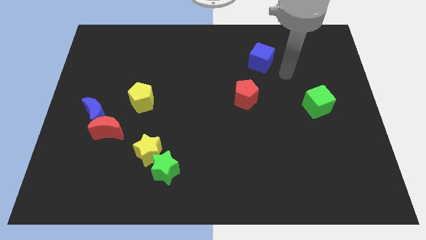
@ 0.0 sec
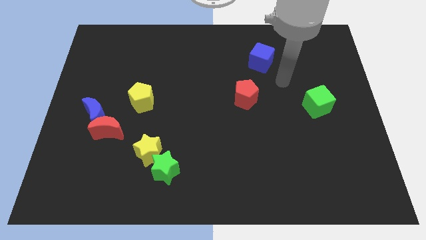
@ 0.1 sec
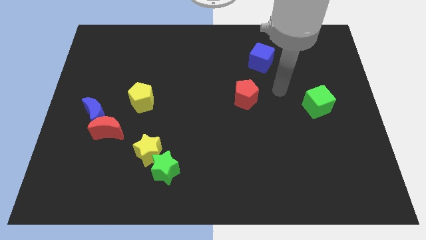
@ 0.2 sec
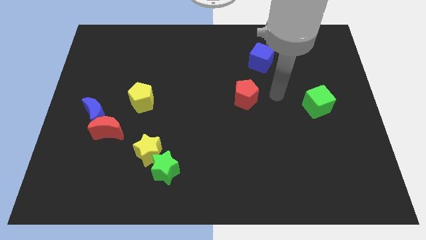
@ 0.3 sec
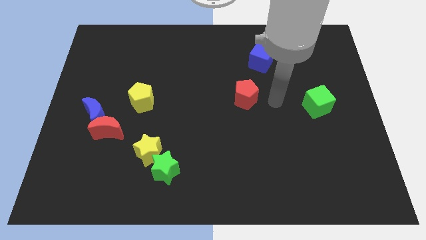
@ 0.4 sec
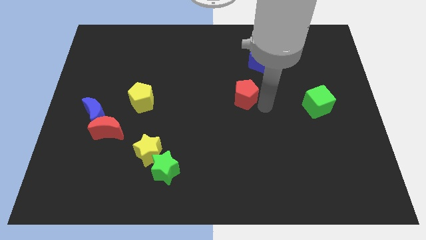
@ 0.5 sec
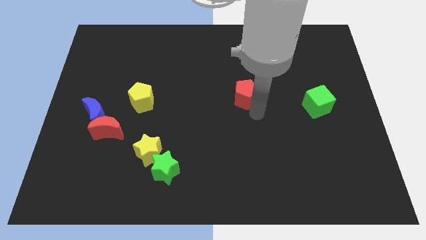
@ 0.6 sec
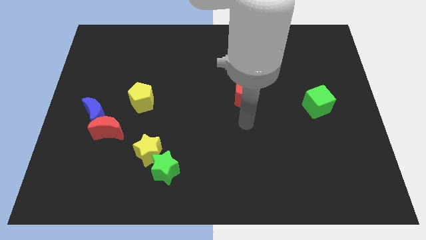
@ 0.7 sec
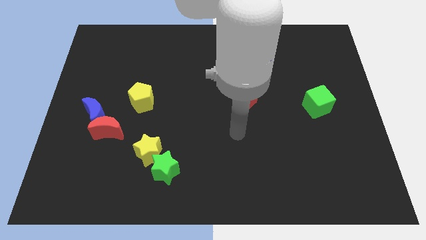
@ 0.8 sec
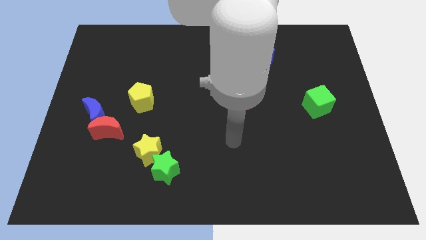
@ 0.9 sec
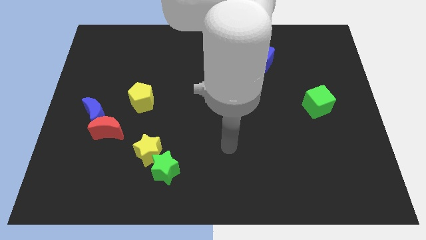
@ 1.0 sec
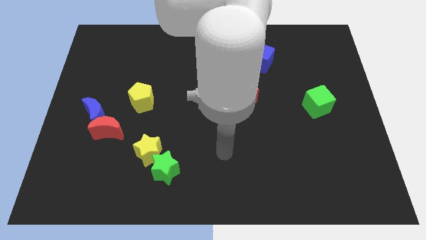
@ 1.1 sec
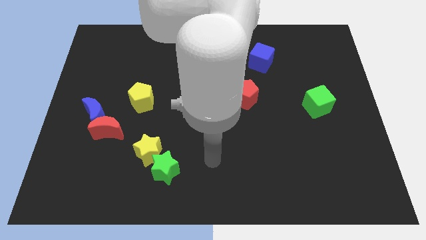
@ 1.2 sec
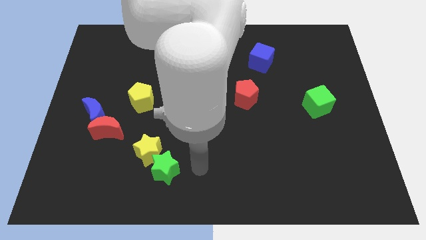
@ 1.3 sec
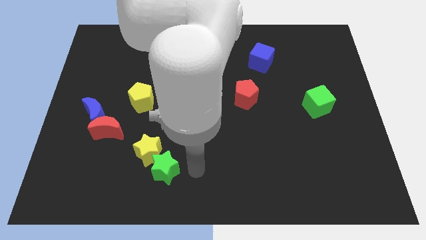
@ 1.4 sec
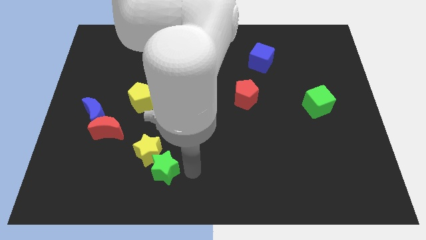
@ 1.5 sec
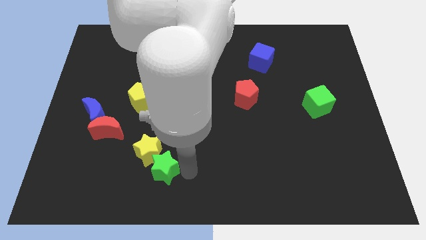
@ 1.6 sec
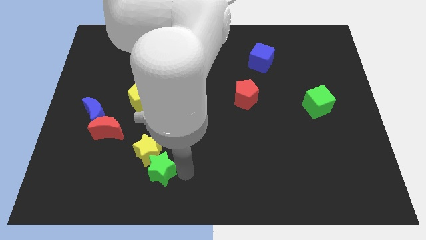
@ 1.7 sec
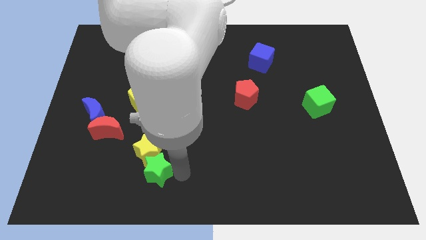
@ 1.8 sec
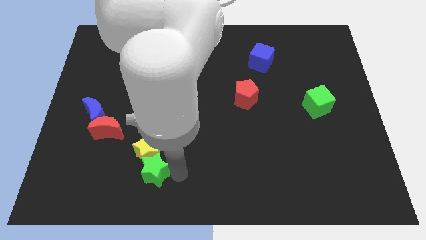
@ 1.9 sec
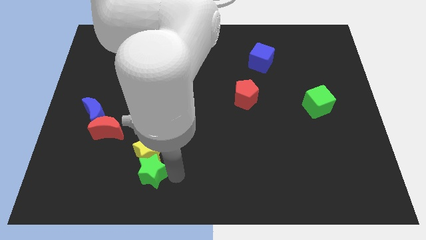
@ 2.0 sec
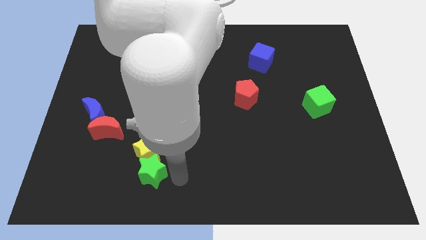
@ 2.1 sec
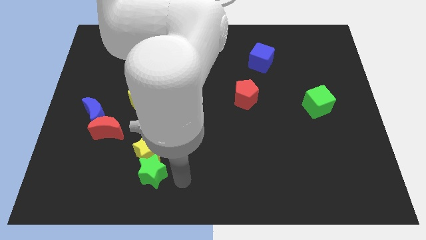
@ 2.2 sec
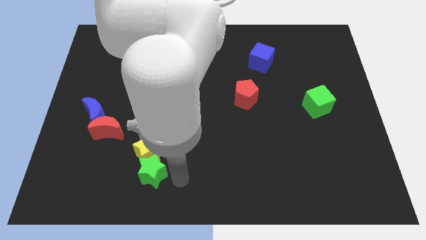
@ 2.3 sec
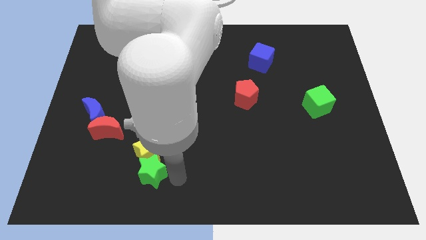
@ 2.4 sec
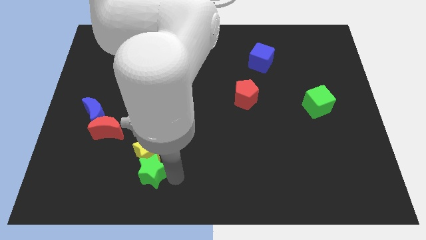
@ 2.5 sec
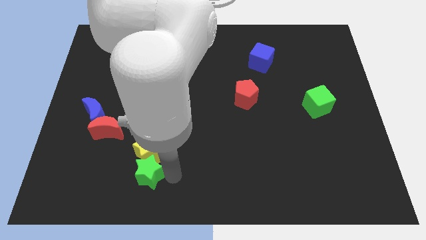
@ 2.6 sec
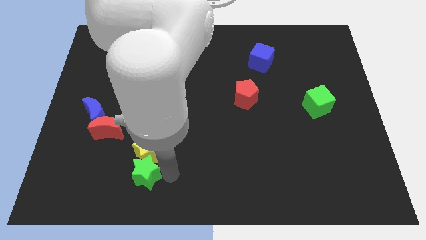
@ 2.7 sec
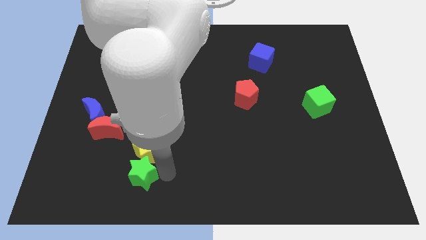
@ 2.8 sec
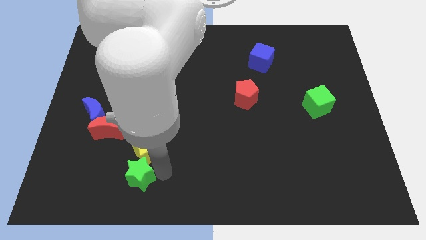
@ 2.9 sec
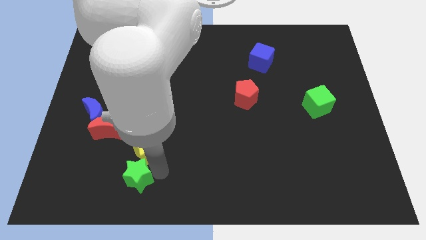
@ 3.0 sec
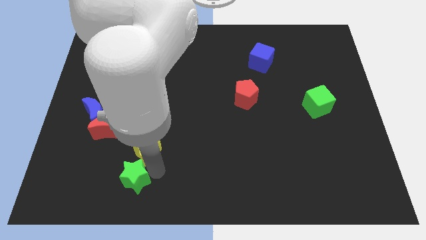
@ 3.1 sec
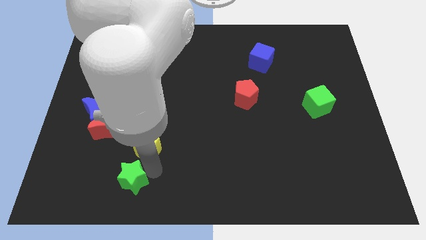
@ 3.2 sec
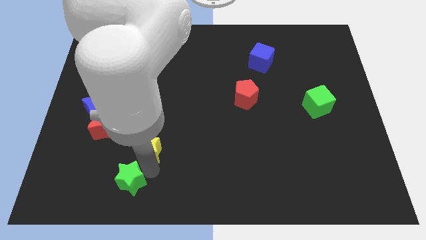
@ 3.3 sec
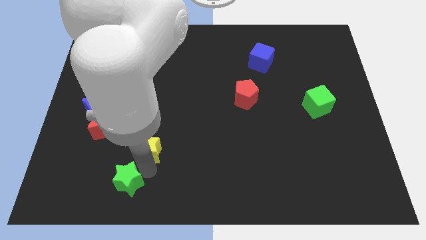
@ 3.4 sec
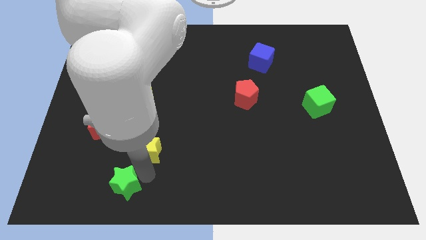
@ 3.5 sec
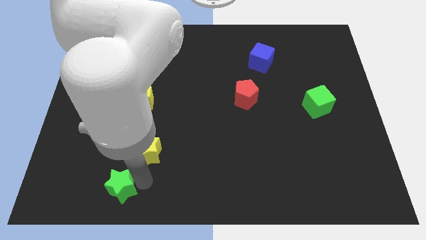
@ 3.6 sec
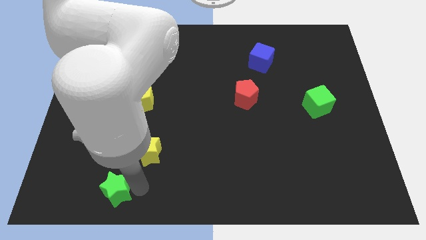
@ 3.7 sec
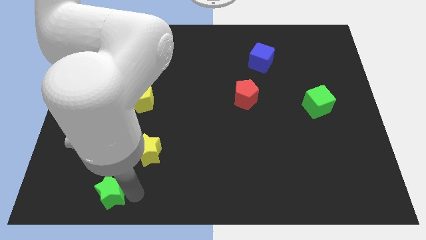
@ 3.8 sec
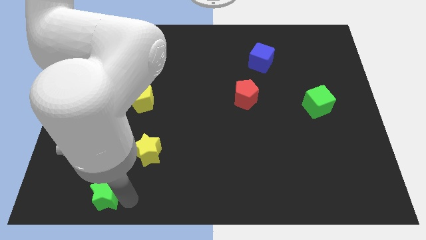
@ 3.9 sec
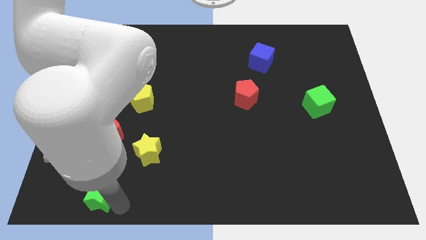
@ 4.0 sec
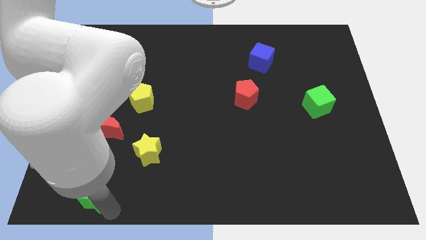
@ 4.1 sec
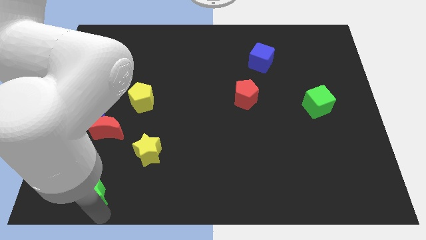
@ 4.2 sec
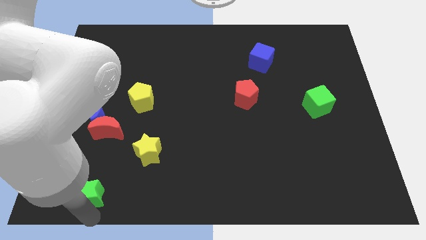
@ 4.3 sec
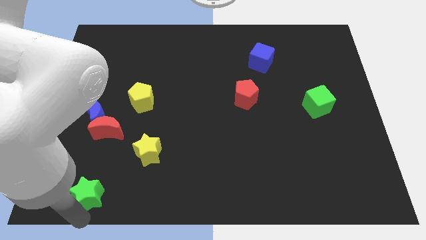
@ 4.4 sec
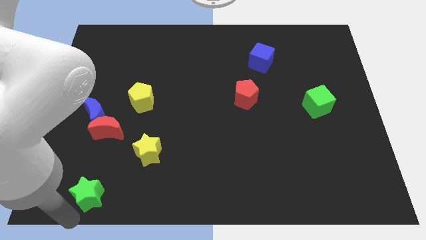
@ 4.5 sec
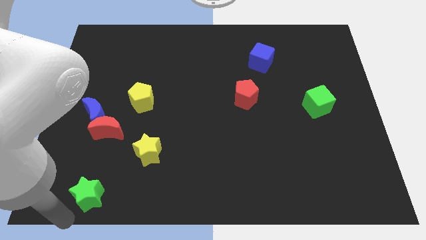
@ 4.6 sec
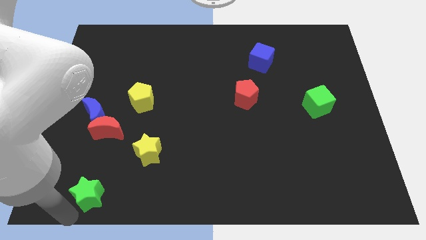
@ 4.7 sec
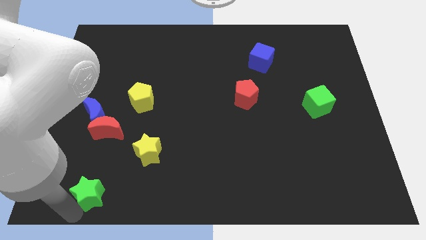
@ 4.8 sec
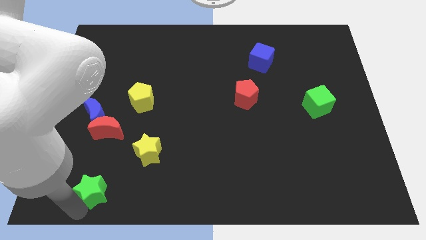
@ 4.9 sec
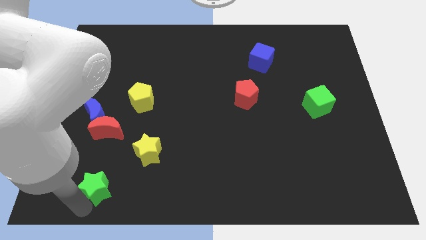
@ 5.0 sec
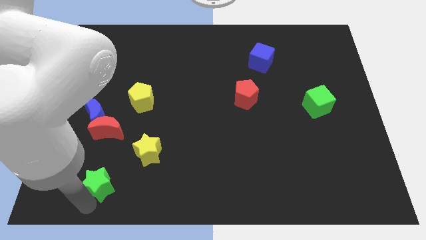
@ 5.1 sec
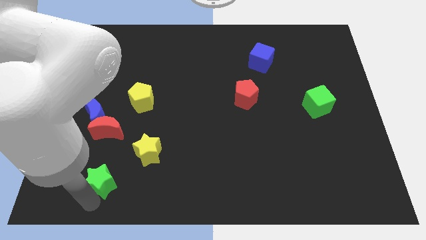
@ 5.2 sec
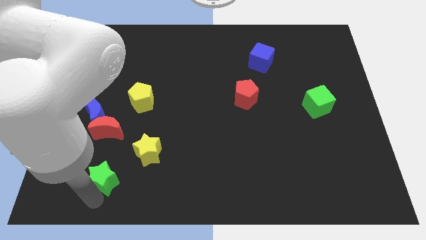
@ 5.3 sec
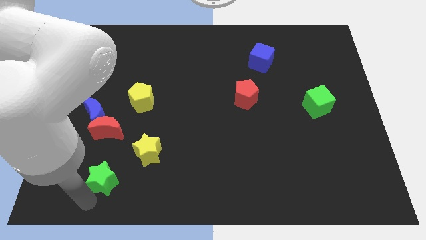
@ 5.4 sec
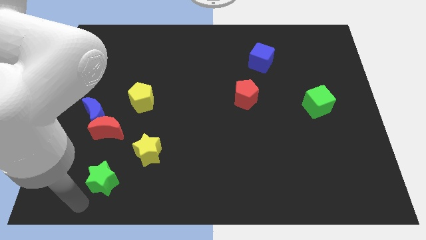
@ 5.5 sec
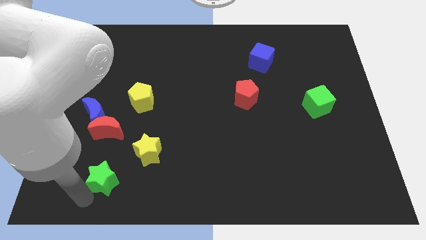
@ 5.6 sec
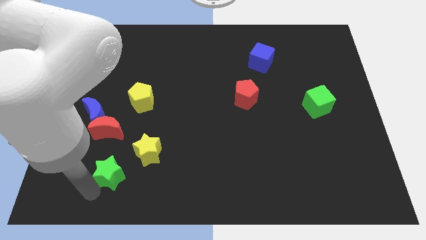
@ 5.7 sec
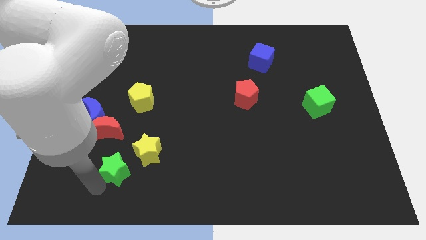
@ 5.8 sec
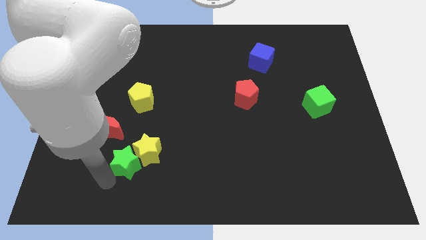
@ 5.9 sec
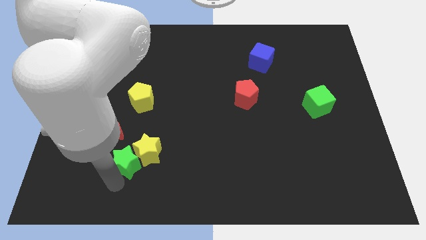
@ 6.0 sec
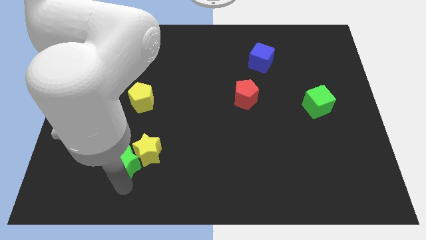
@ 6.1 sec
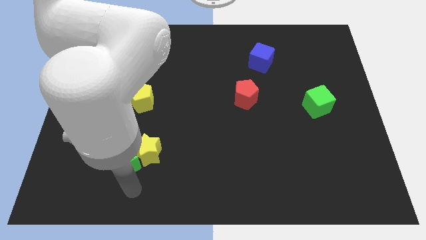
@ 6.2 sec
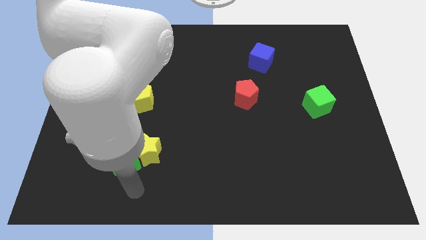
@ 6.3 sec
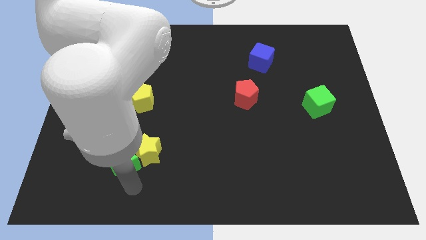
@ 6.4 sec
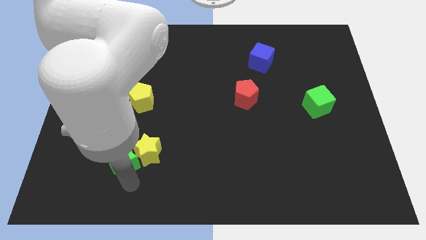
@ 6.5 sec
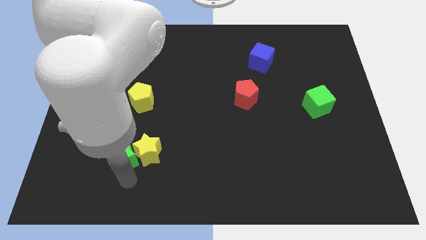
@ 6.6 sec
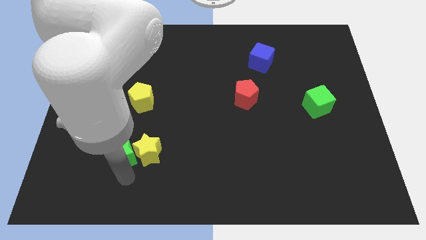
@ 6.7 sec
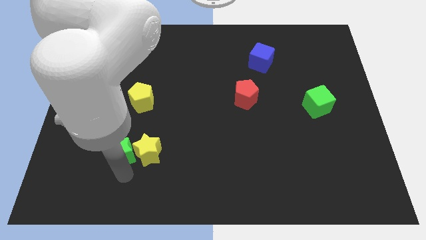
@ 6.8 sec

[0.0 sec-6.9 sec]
put the green star to the bottom right side of the blue moon
